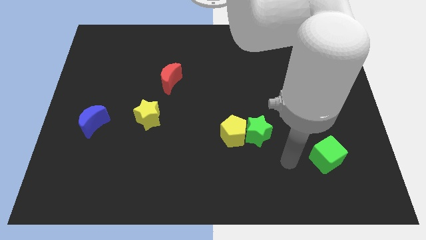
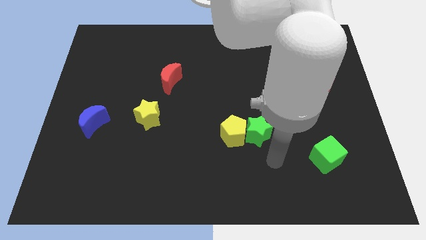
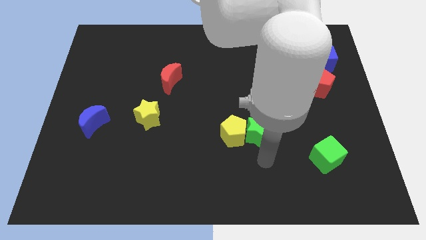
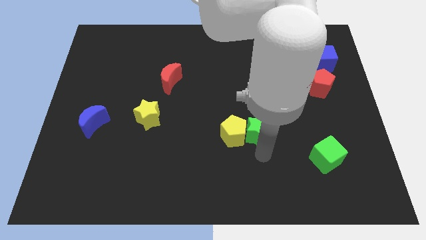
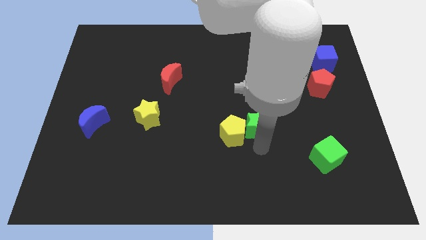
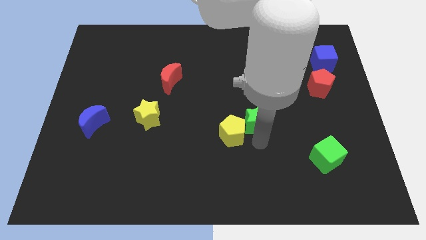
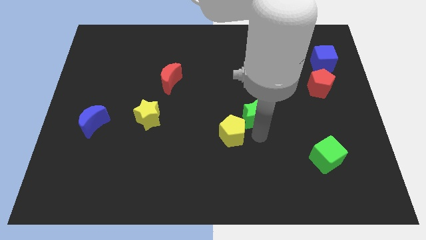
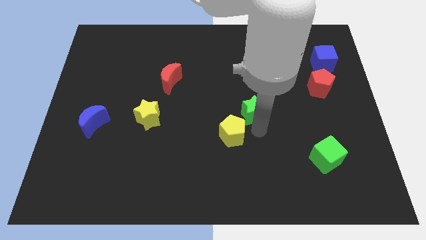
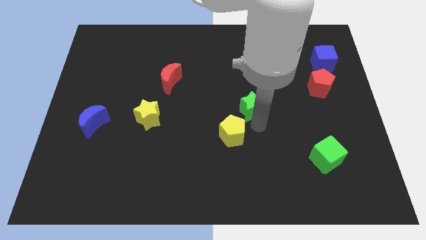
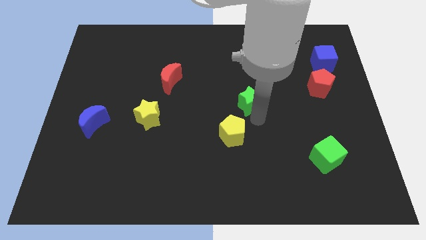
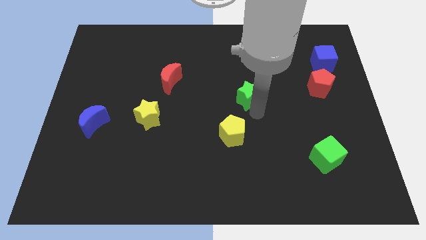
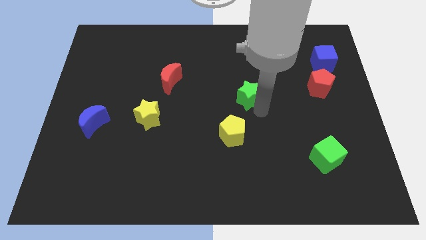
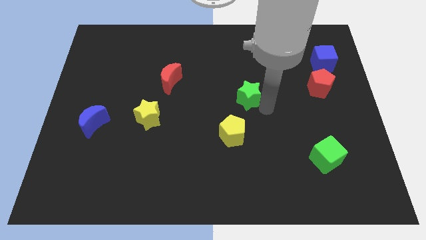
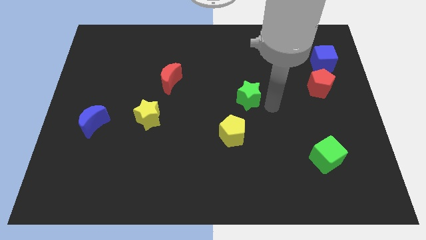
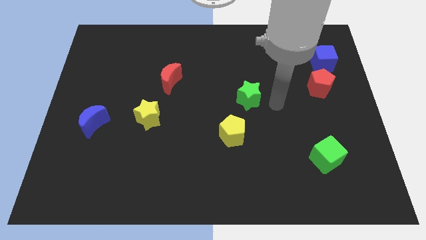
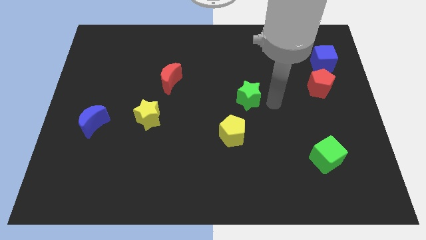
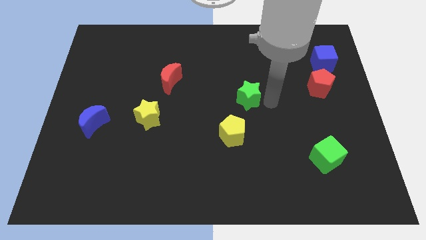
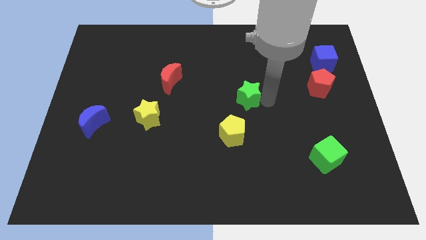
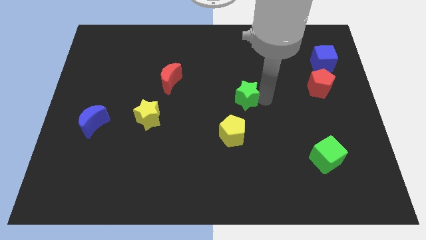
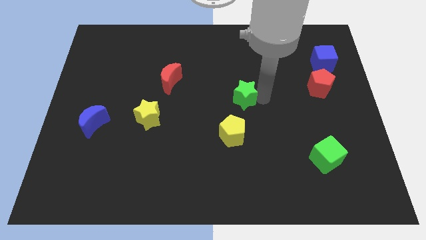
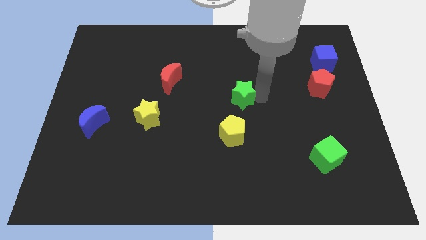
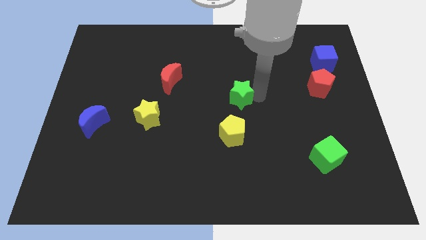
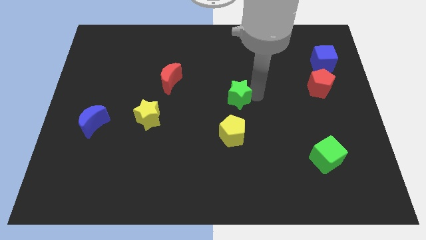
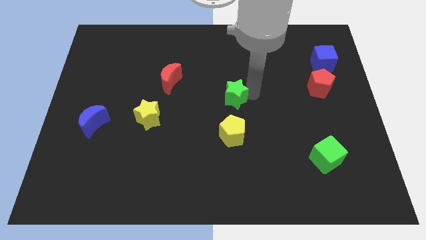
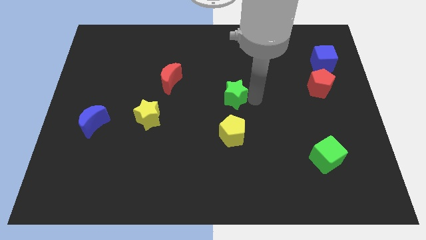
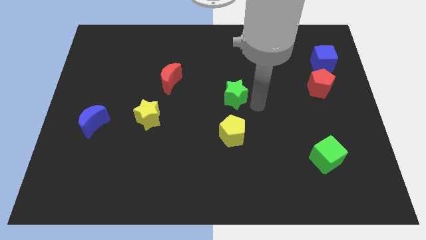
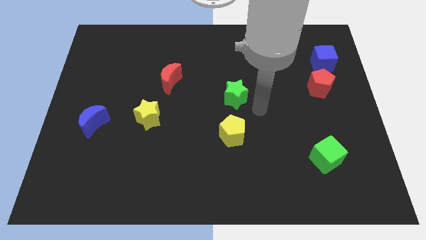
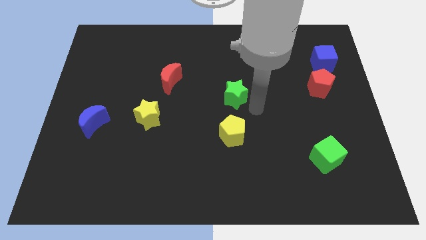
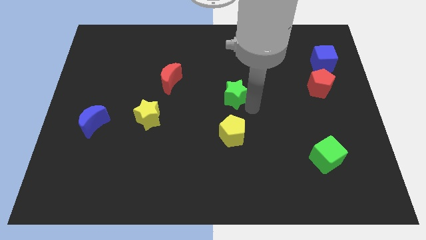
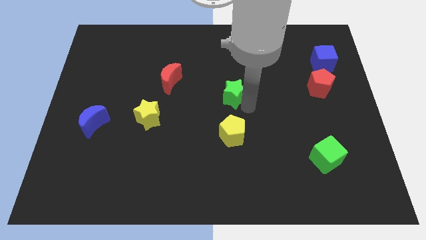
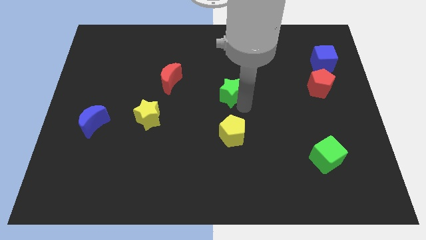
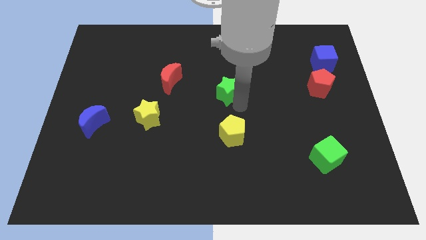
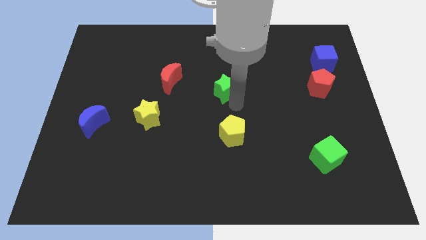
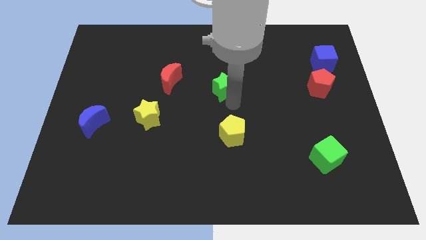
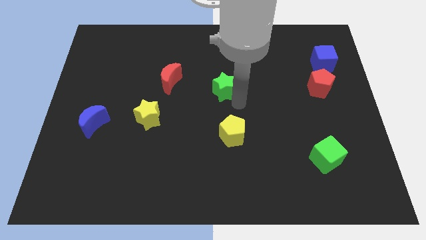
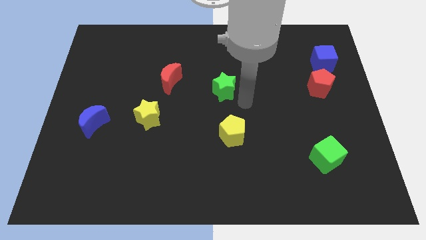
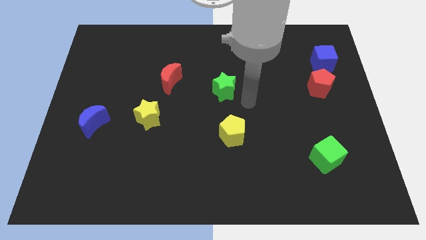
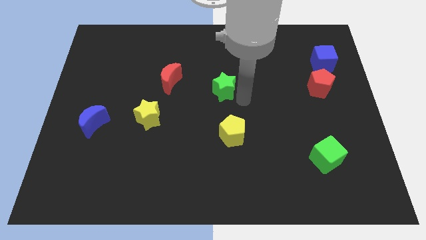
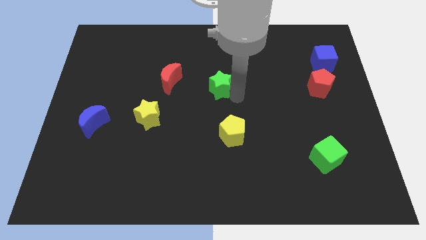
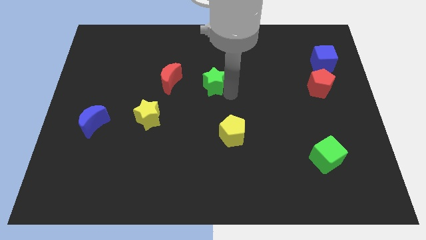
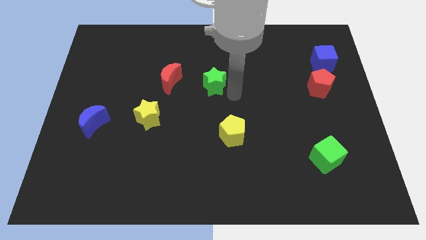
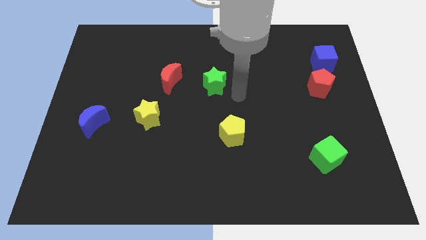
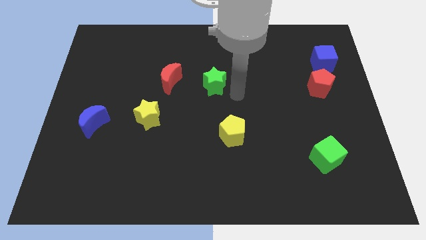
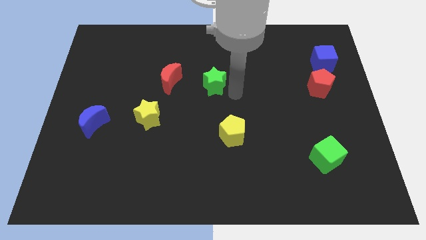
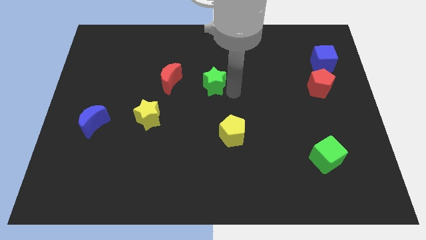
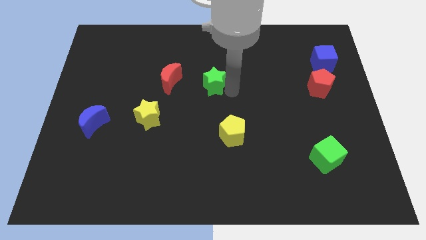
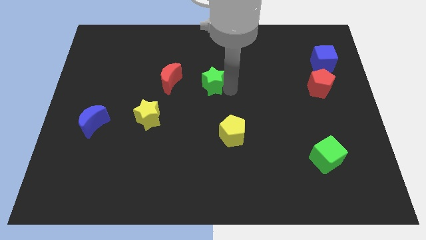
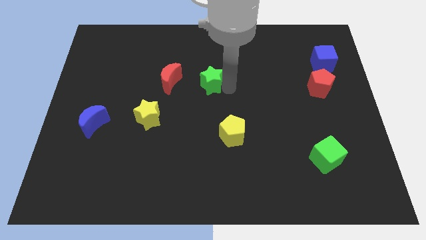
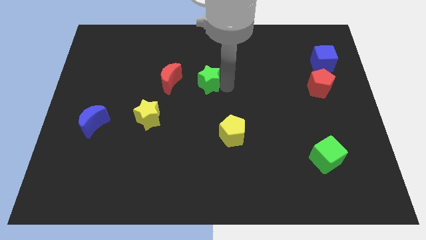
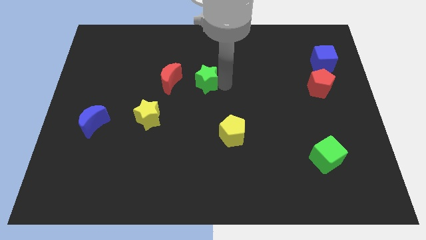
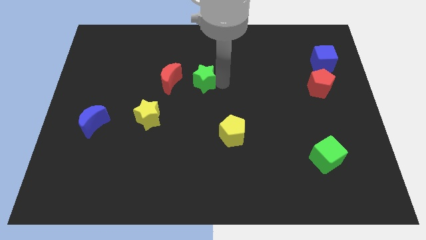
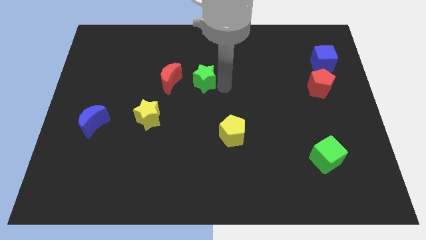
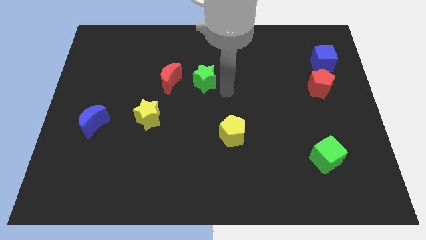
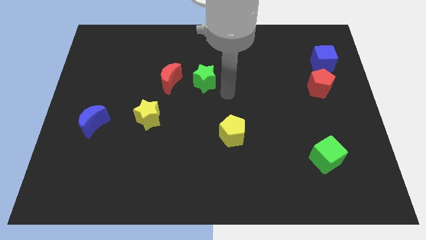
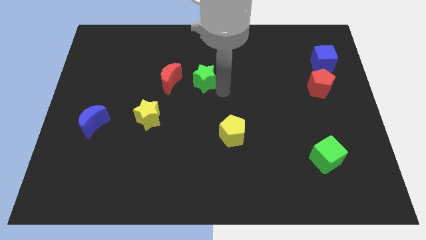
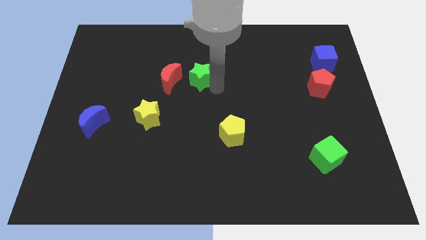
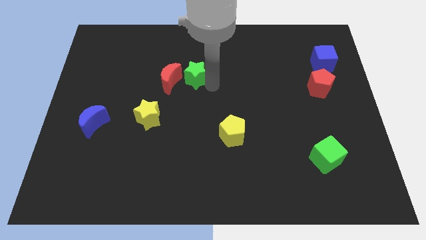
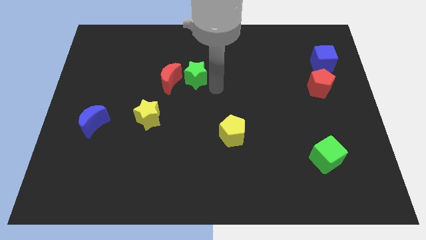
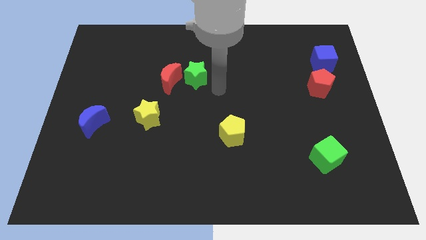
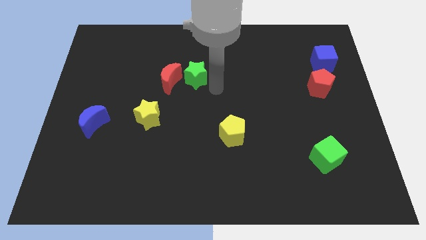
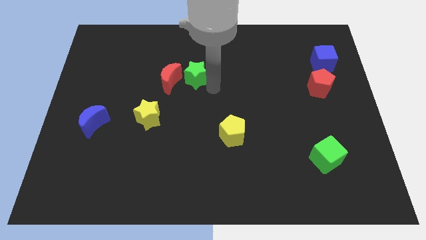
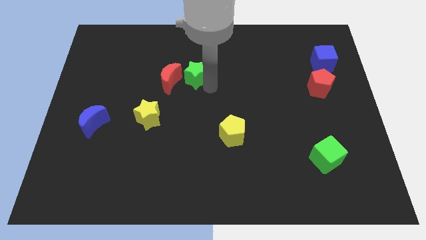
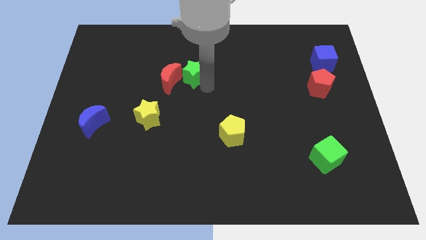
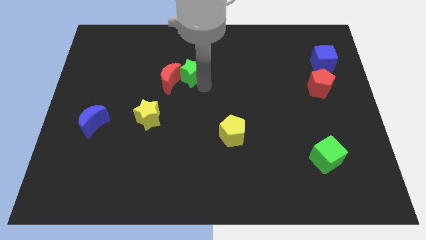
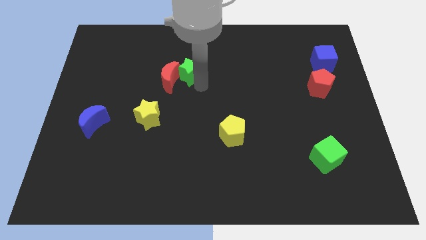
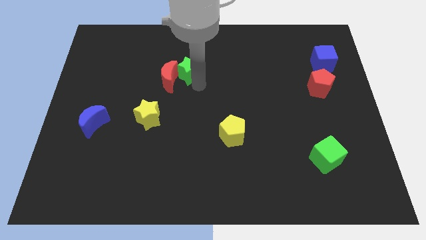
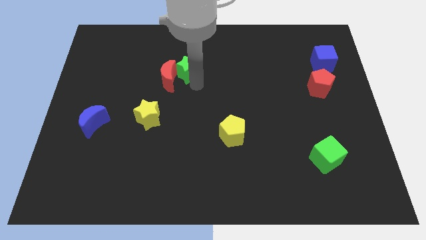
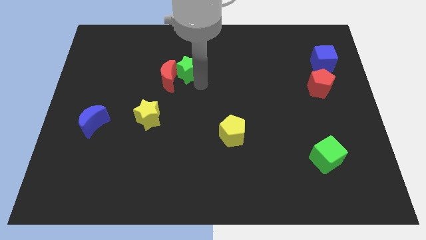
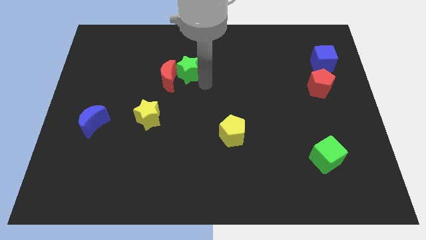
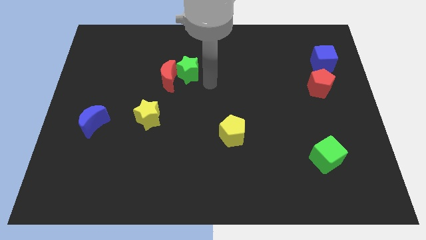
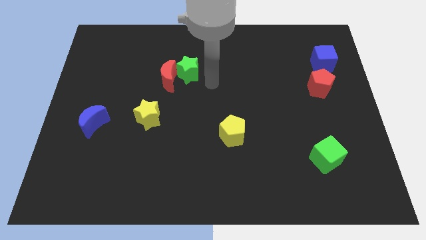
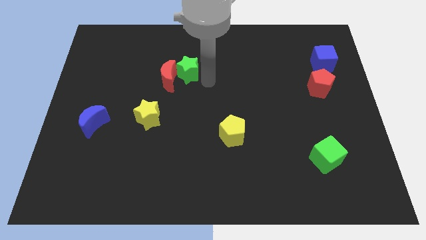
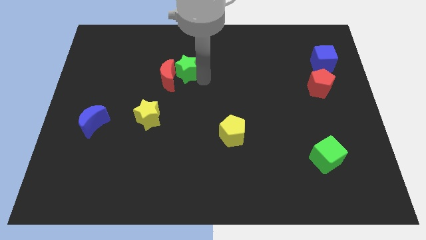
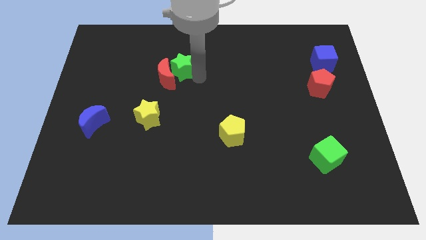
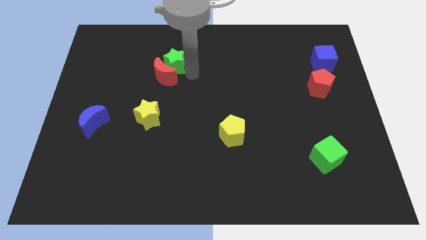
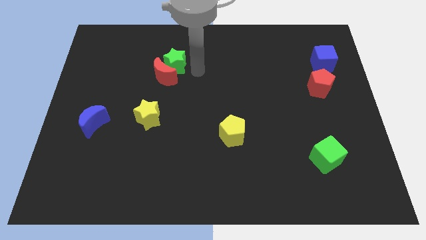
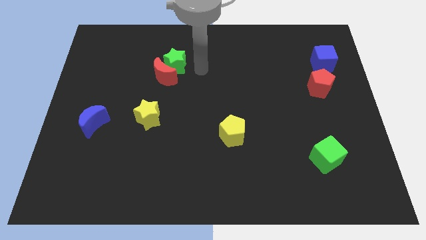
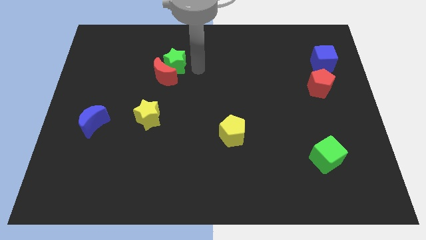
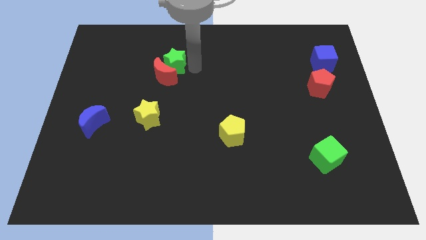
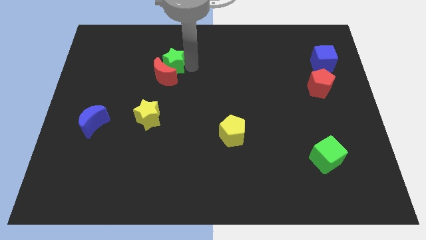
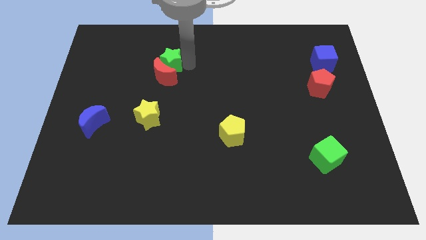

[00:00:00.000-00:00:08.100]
put the green star diagonally up and to the left of the red moon
